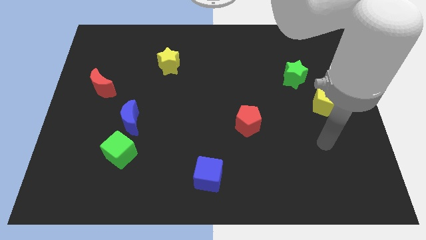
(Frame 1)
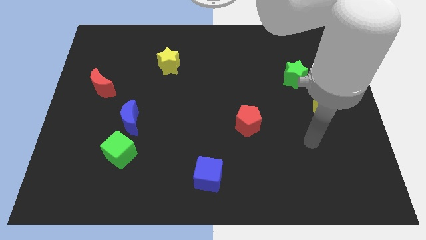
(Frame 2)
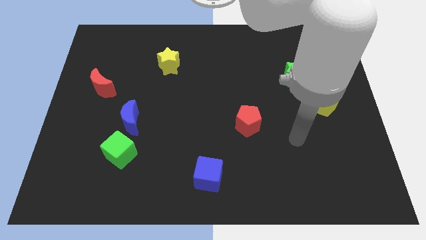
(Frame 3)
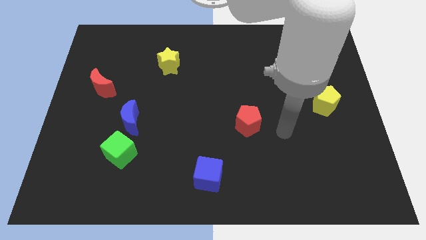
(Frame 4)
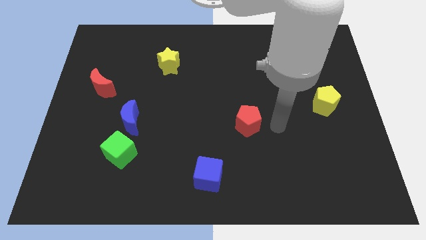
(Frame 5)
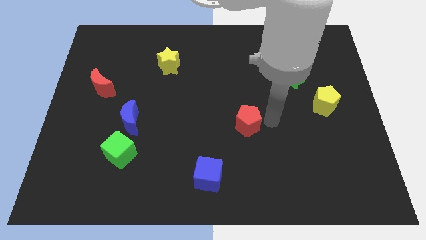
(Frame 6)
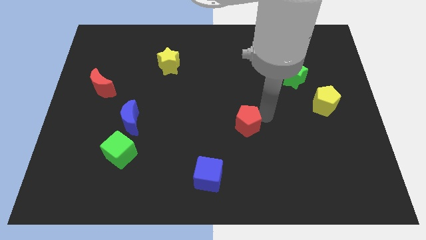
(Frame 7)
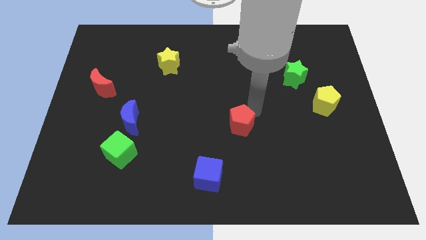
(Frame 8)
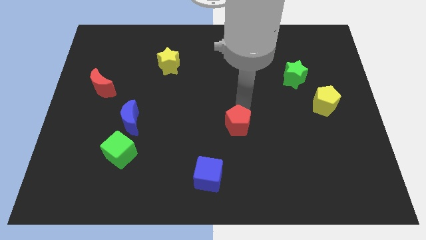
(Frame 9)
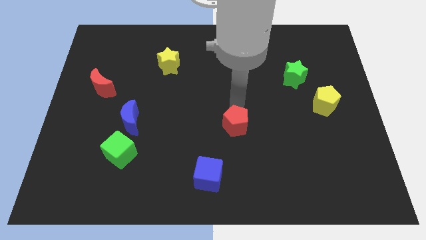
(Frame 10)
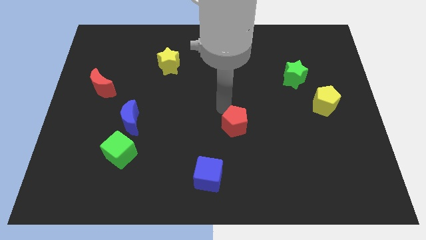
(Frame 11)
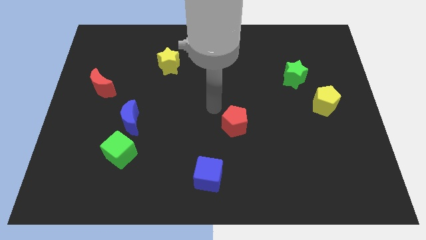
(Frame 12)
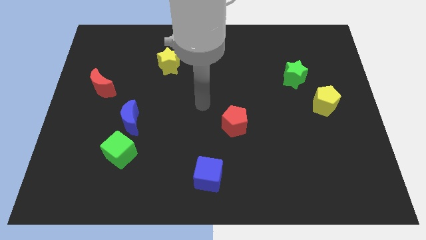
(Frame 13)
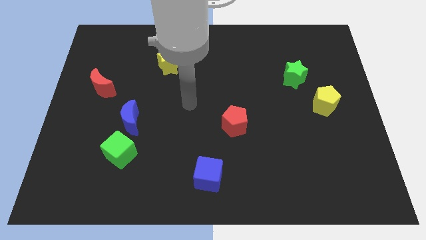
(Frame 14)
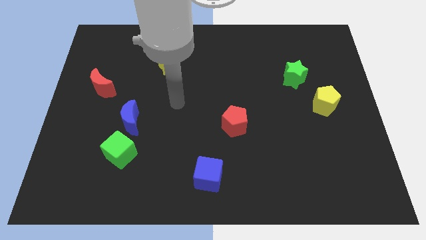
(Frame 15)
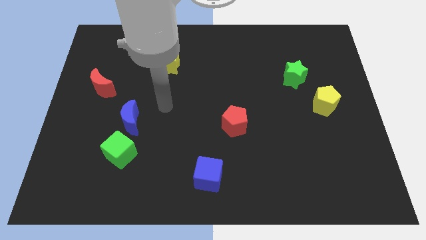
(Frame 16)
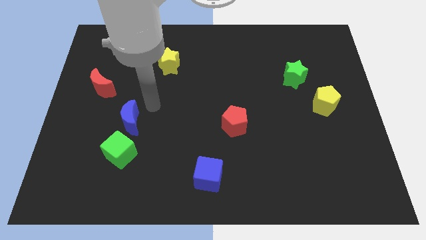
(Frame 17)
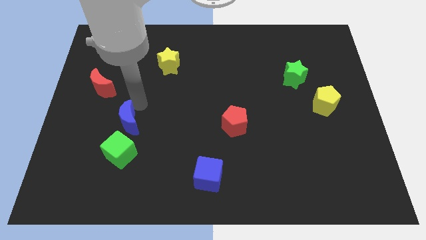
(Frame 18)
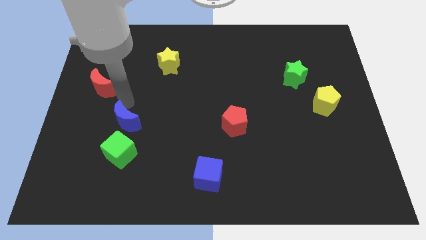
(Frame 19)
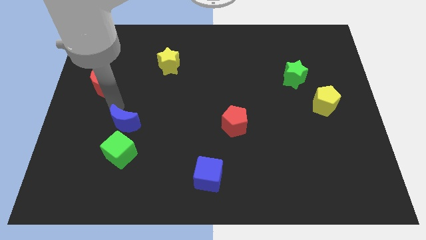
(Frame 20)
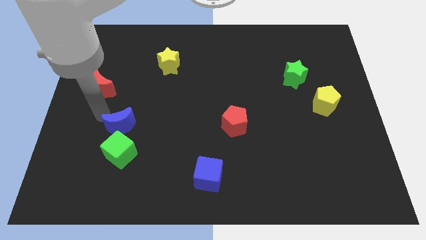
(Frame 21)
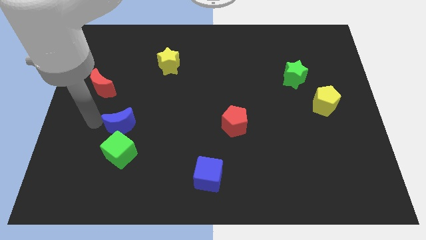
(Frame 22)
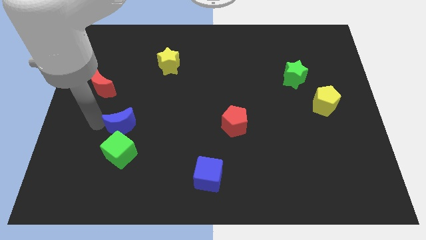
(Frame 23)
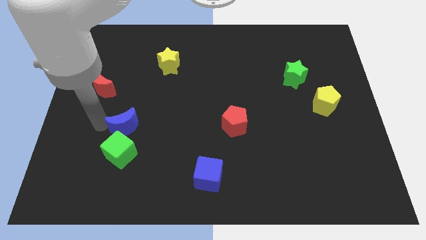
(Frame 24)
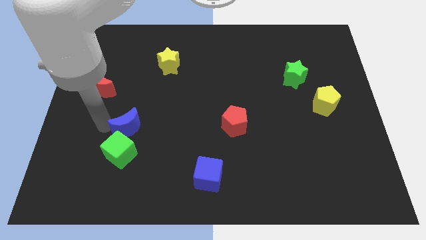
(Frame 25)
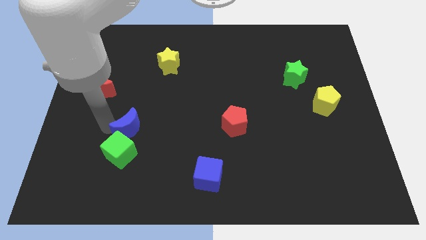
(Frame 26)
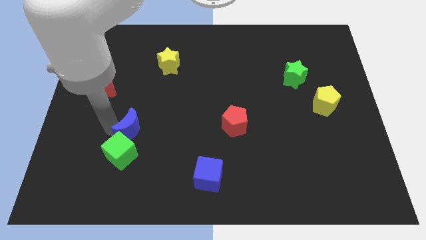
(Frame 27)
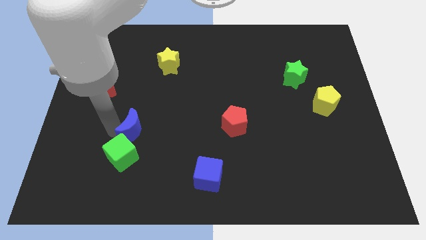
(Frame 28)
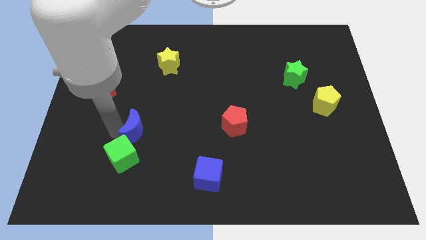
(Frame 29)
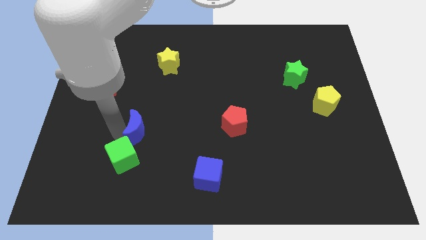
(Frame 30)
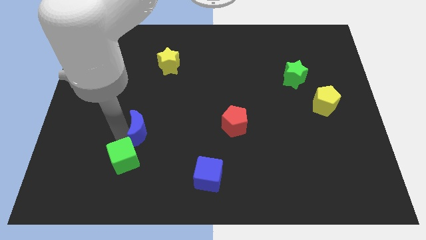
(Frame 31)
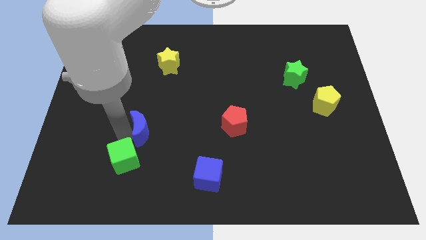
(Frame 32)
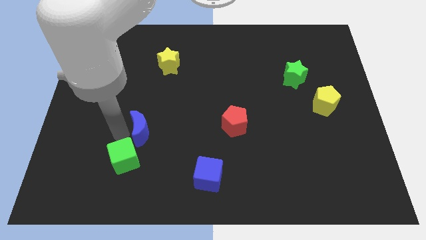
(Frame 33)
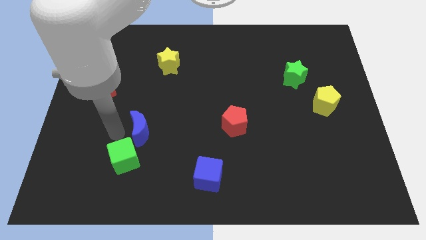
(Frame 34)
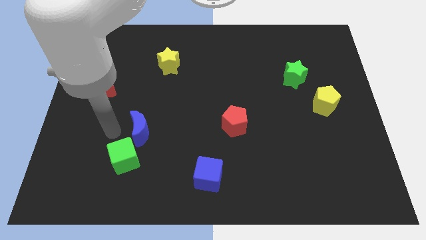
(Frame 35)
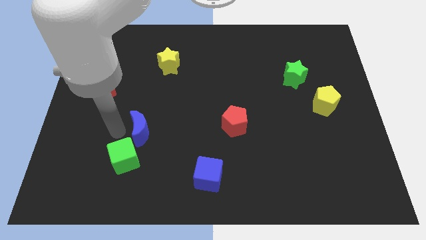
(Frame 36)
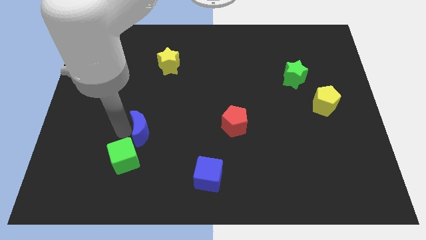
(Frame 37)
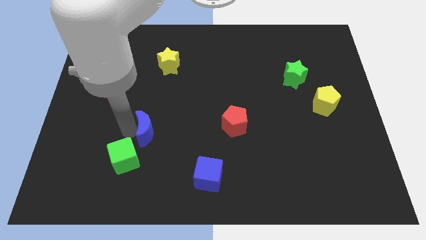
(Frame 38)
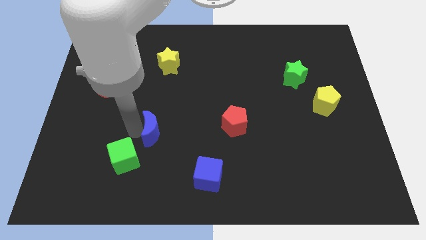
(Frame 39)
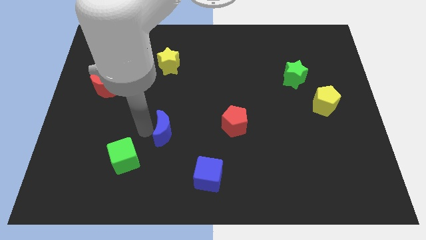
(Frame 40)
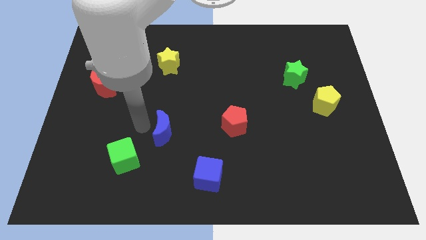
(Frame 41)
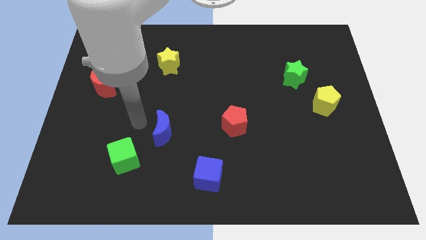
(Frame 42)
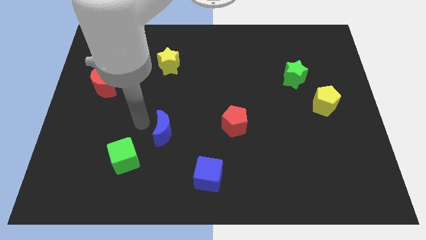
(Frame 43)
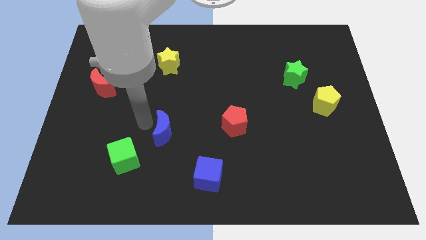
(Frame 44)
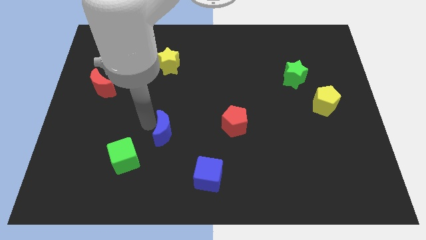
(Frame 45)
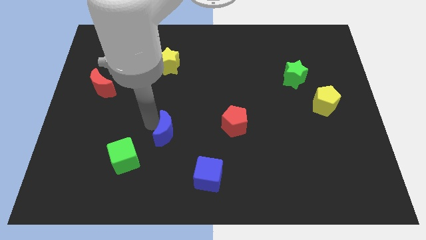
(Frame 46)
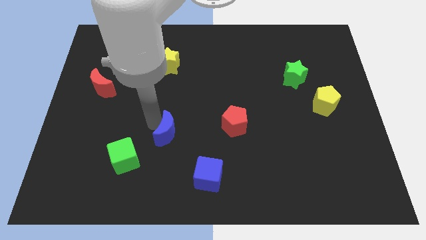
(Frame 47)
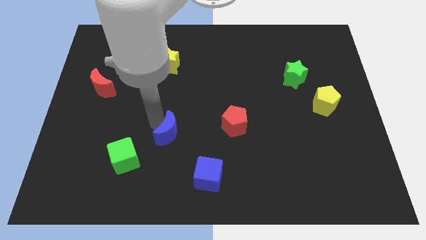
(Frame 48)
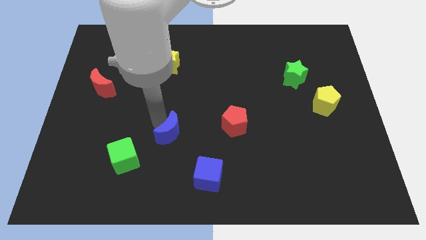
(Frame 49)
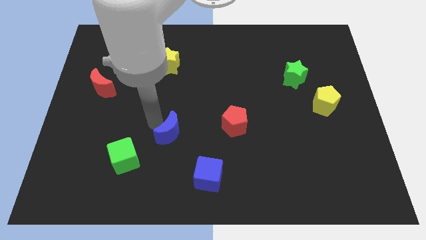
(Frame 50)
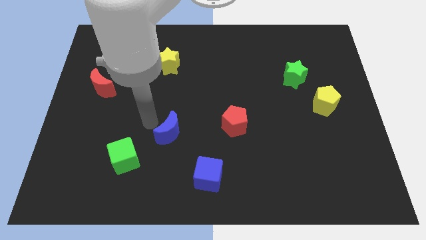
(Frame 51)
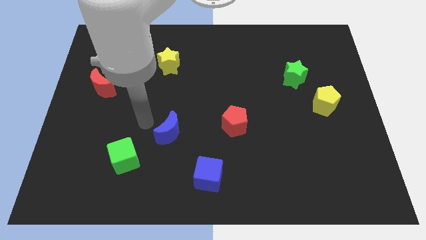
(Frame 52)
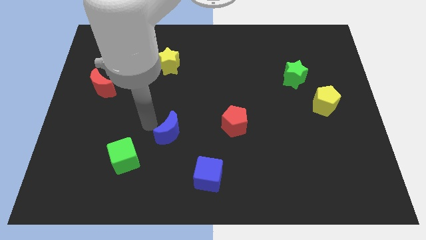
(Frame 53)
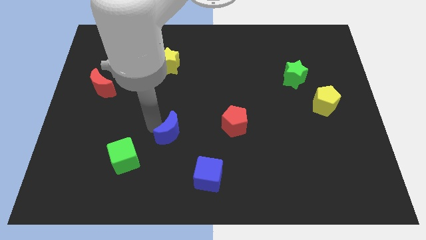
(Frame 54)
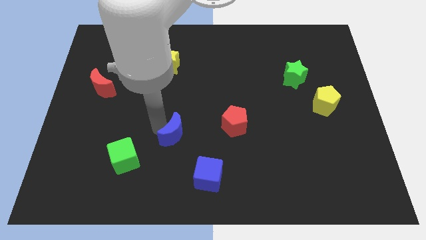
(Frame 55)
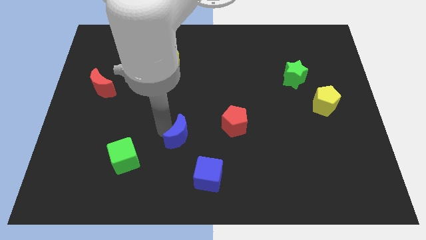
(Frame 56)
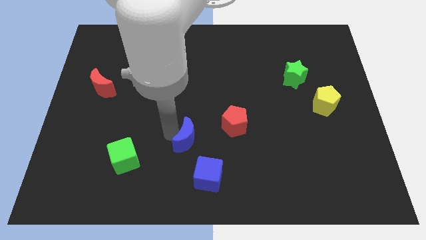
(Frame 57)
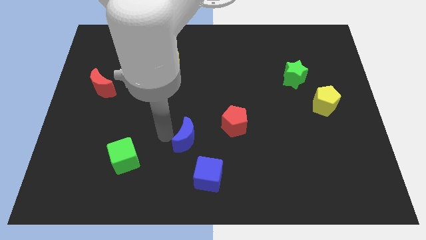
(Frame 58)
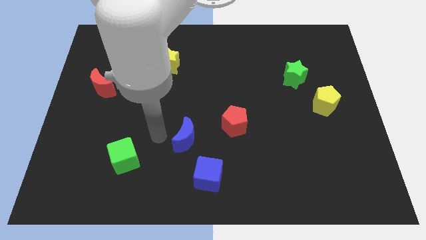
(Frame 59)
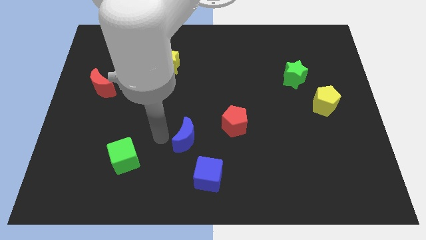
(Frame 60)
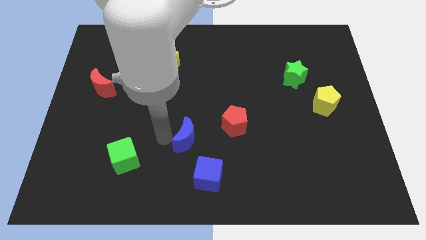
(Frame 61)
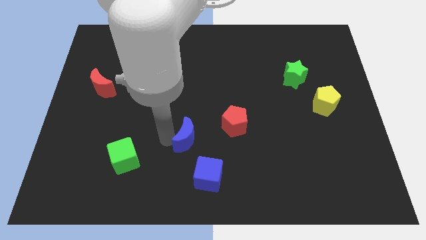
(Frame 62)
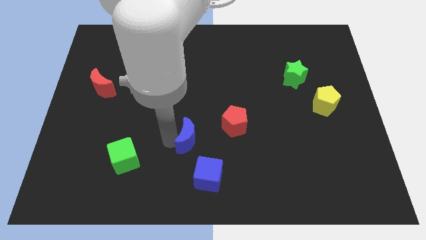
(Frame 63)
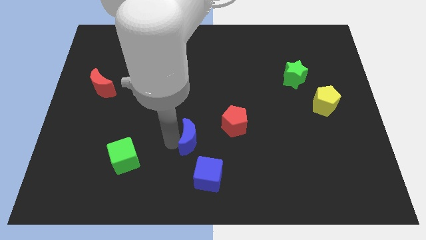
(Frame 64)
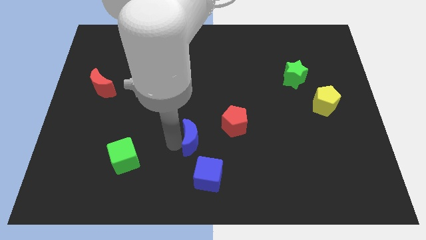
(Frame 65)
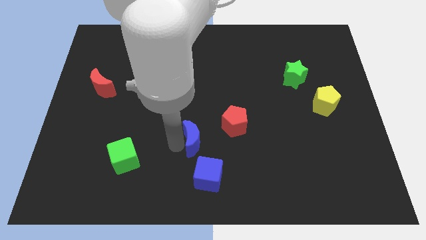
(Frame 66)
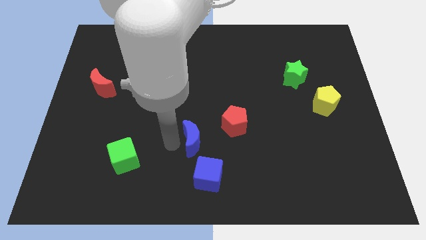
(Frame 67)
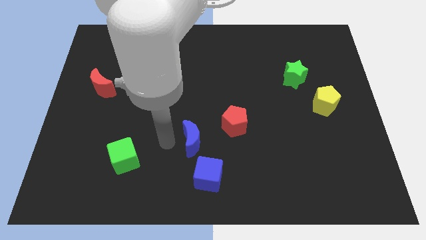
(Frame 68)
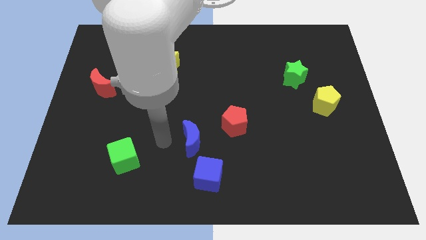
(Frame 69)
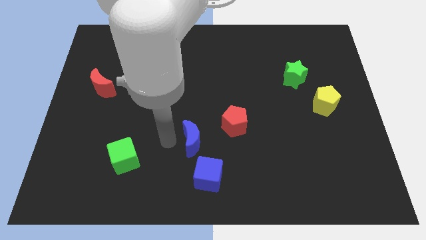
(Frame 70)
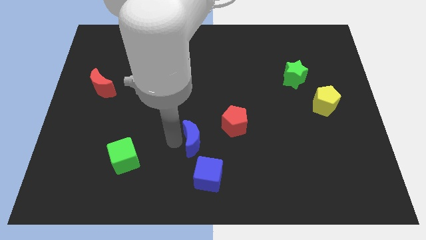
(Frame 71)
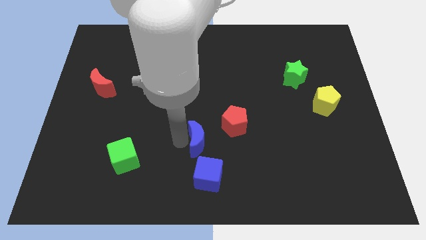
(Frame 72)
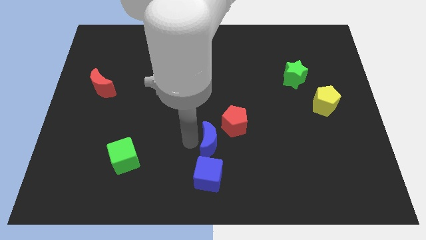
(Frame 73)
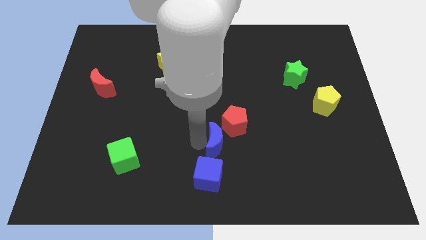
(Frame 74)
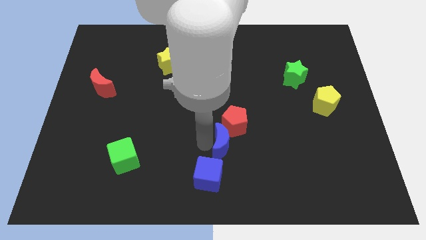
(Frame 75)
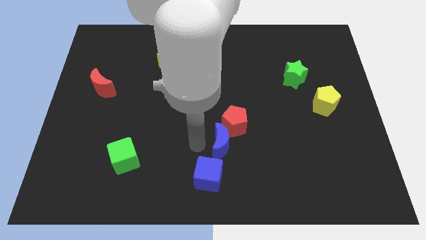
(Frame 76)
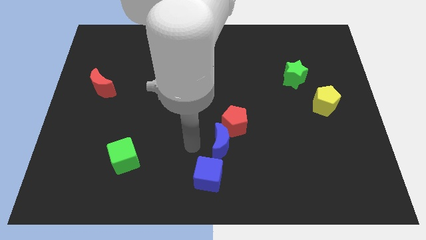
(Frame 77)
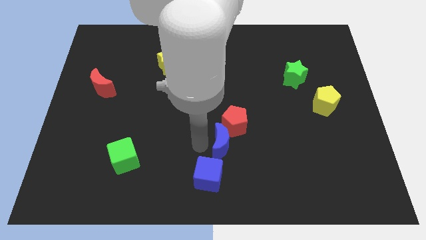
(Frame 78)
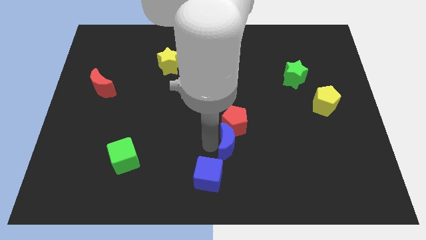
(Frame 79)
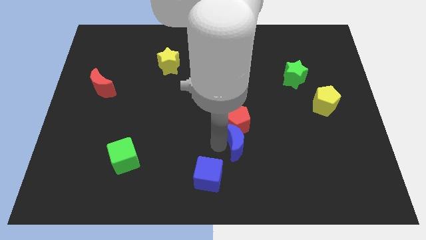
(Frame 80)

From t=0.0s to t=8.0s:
push the blue moon to the bottom right side of the red pentagon
